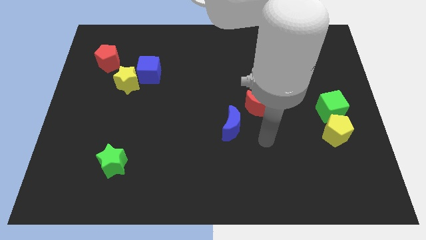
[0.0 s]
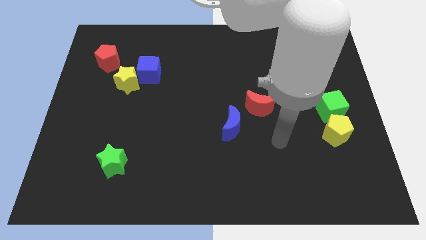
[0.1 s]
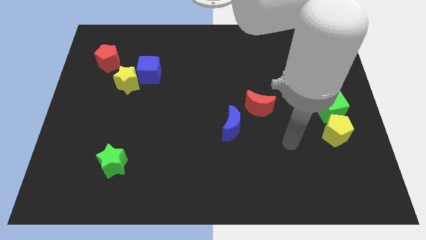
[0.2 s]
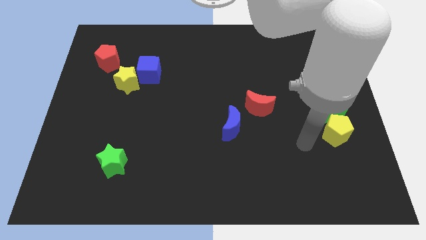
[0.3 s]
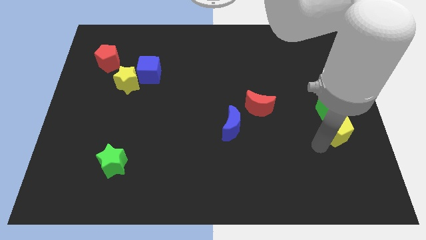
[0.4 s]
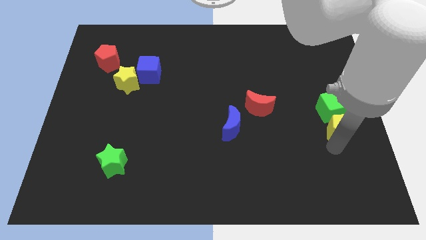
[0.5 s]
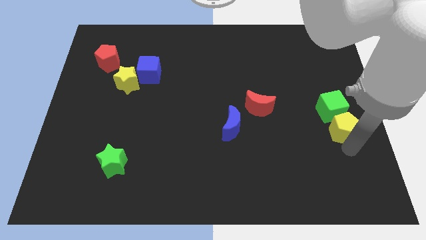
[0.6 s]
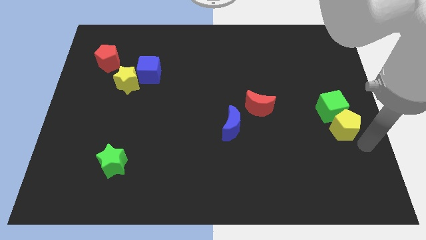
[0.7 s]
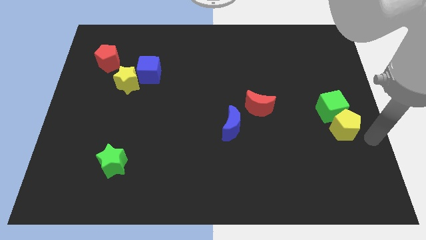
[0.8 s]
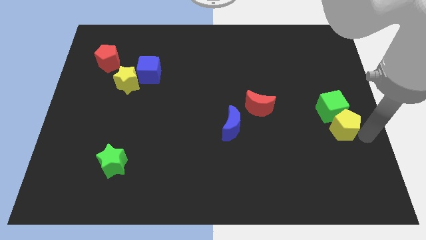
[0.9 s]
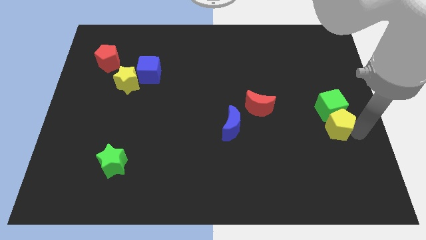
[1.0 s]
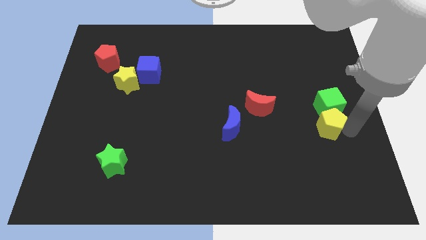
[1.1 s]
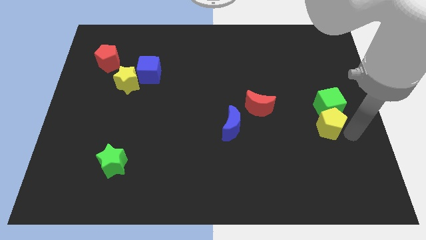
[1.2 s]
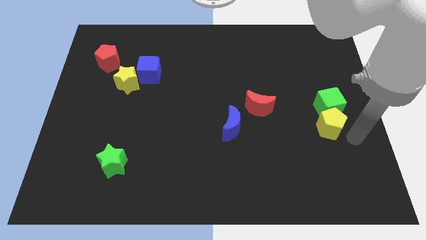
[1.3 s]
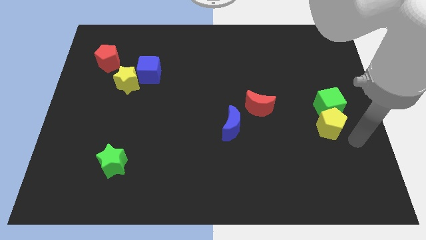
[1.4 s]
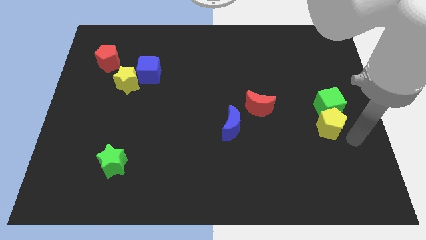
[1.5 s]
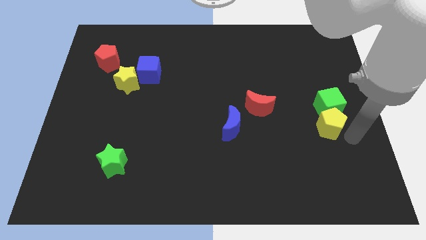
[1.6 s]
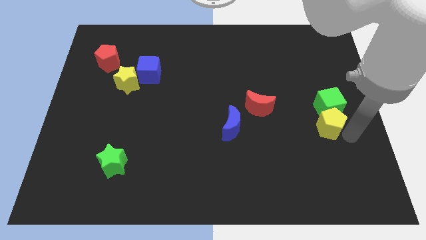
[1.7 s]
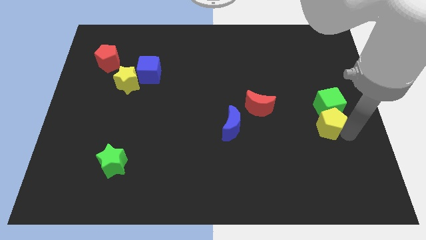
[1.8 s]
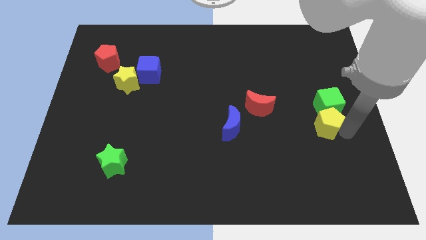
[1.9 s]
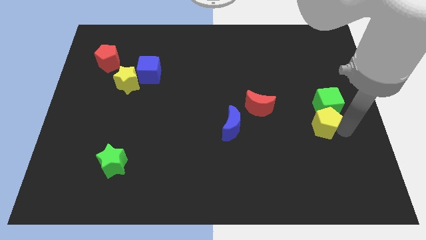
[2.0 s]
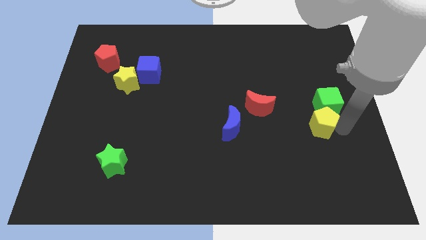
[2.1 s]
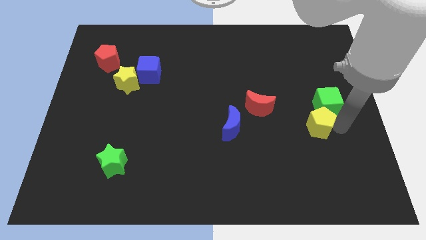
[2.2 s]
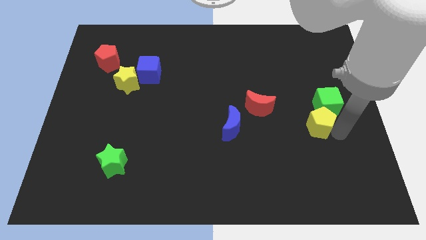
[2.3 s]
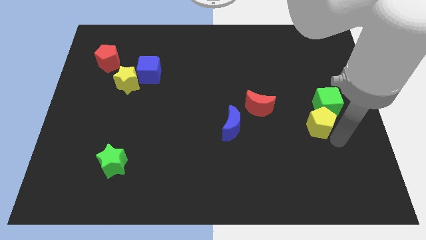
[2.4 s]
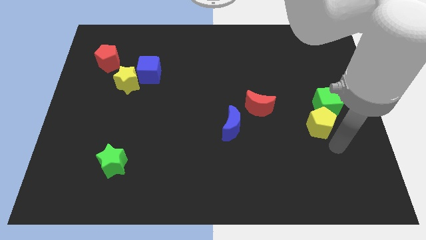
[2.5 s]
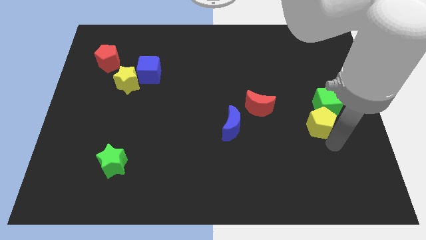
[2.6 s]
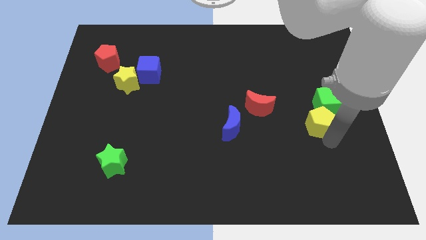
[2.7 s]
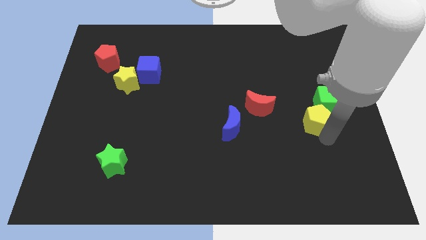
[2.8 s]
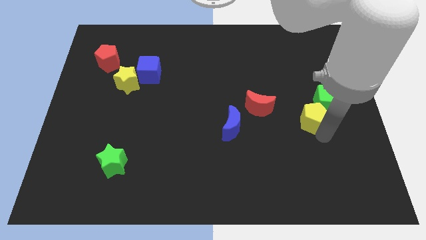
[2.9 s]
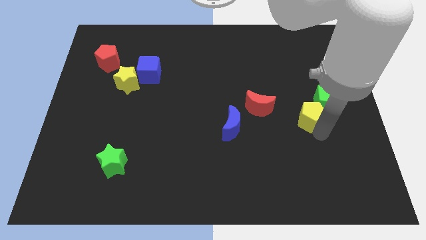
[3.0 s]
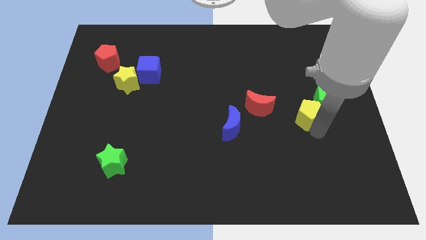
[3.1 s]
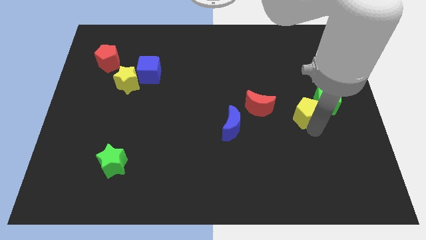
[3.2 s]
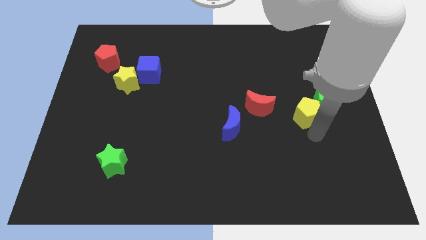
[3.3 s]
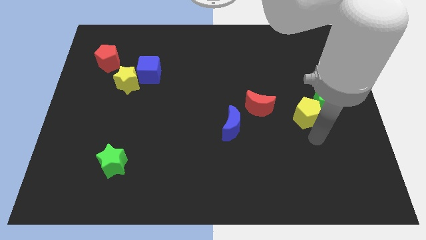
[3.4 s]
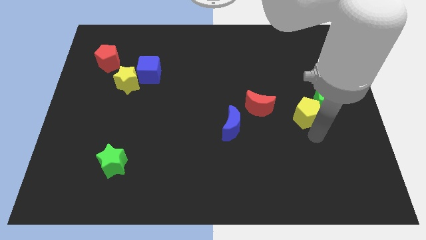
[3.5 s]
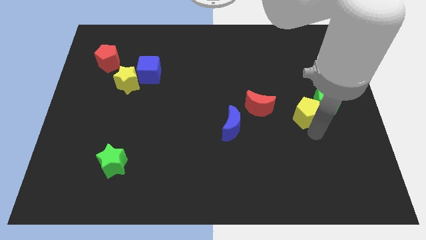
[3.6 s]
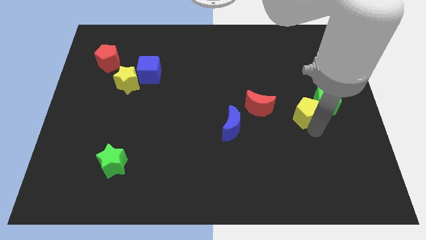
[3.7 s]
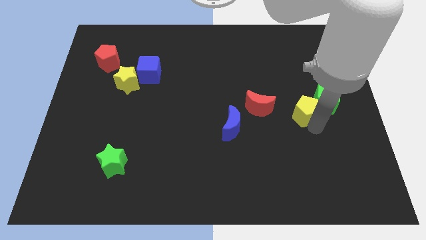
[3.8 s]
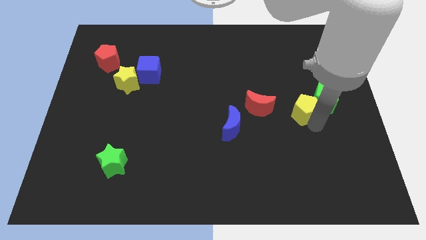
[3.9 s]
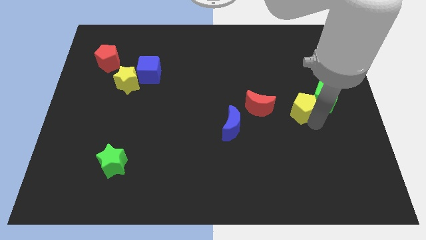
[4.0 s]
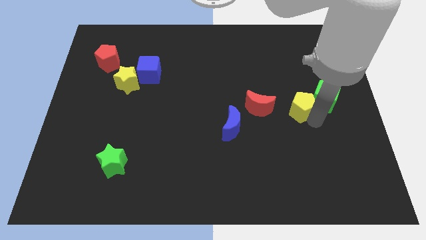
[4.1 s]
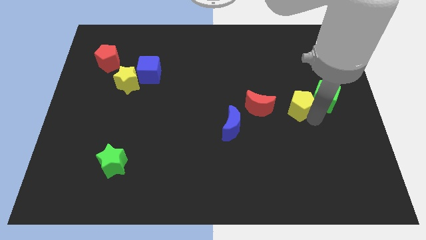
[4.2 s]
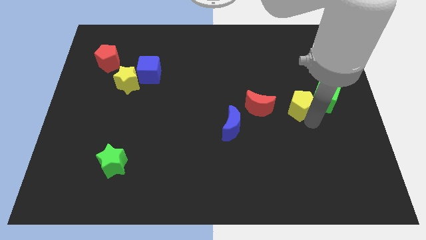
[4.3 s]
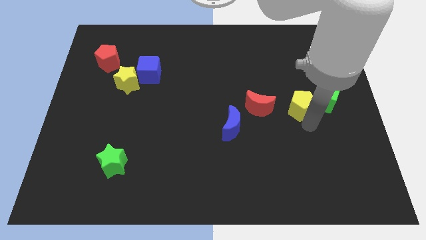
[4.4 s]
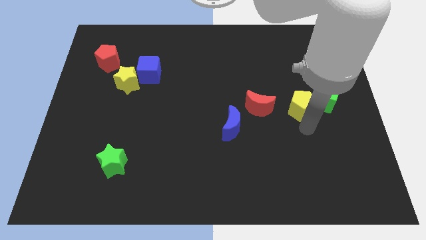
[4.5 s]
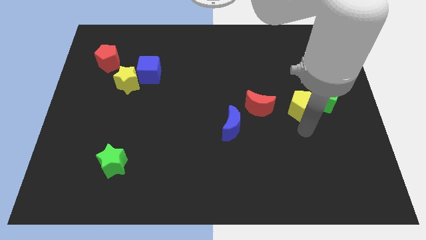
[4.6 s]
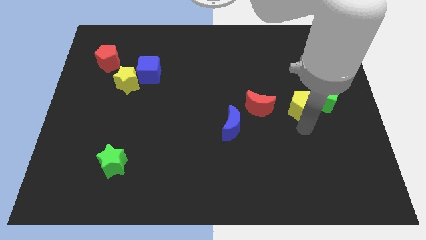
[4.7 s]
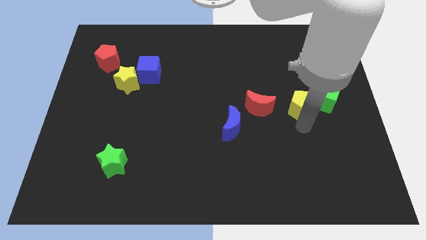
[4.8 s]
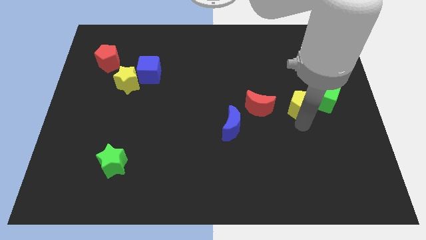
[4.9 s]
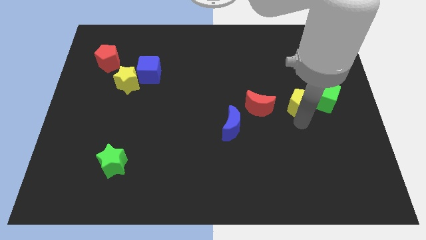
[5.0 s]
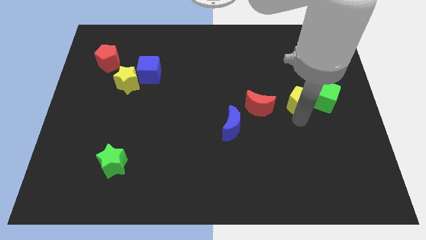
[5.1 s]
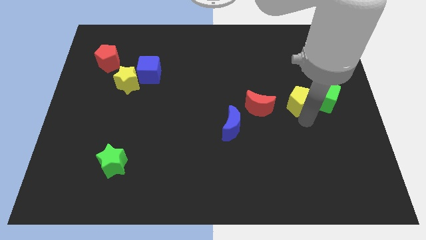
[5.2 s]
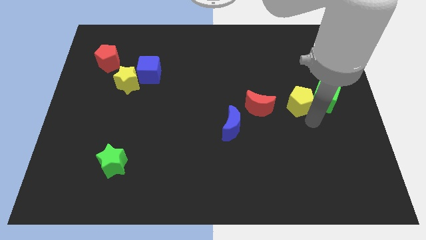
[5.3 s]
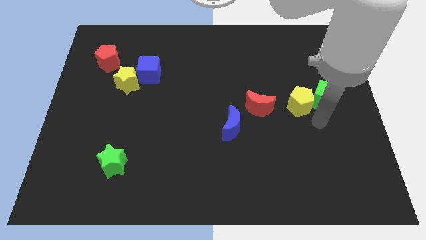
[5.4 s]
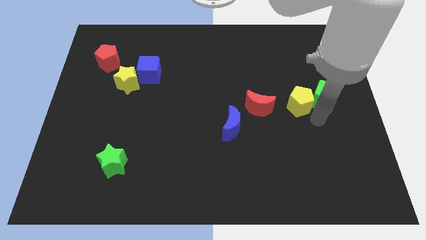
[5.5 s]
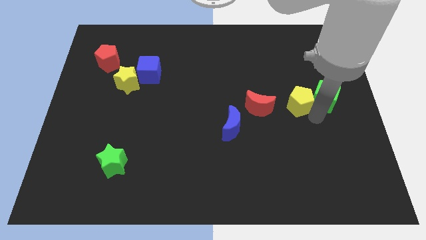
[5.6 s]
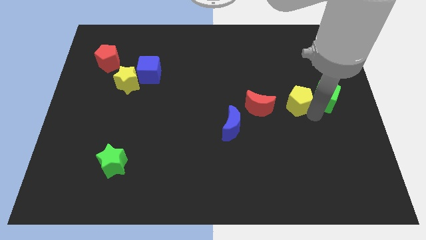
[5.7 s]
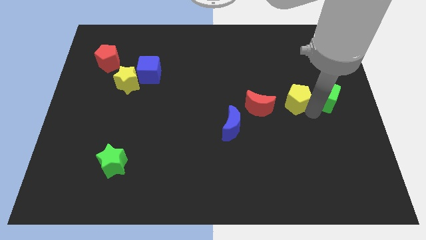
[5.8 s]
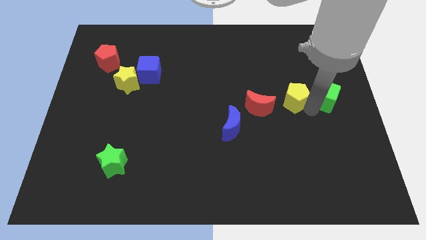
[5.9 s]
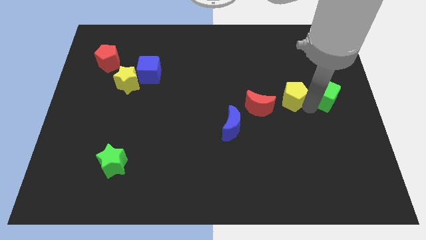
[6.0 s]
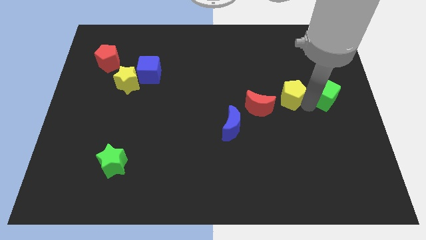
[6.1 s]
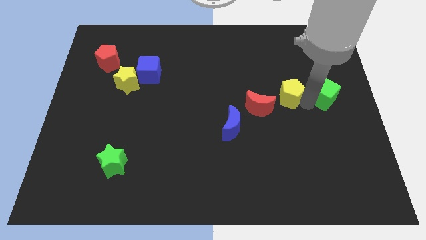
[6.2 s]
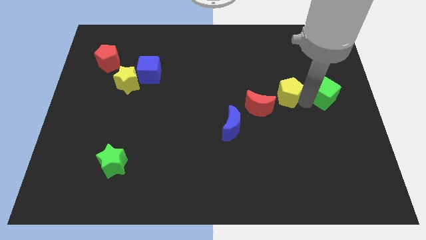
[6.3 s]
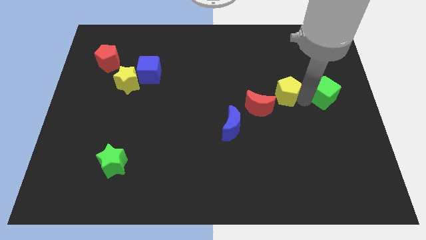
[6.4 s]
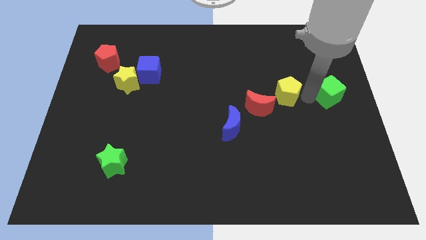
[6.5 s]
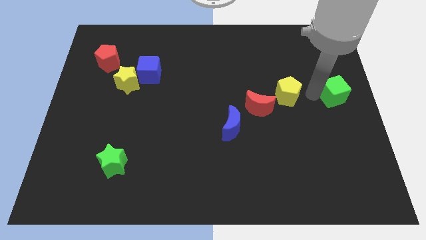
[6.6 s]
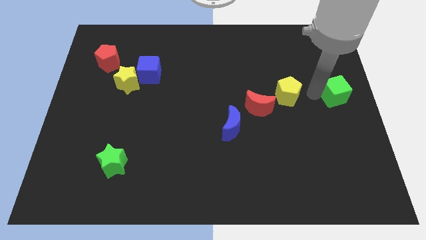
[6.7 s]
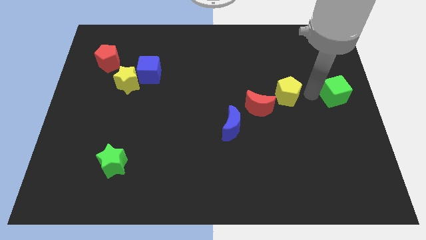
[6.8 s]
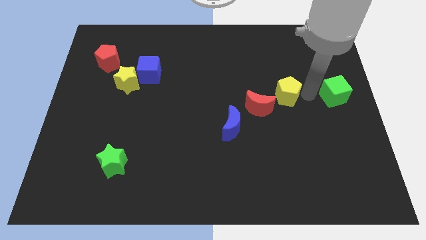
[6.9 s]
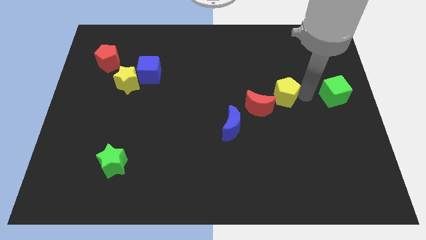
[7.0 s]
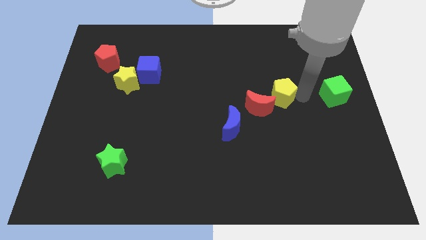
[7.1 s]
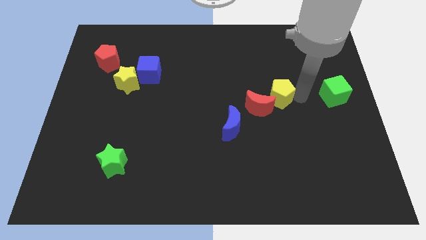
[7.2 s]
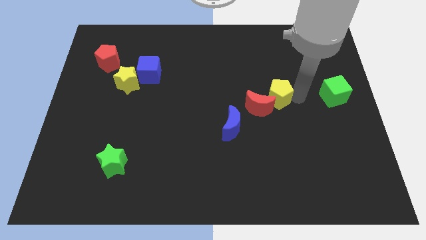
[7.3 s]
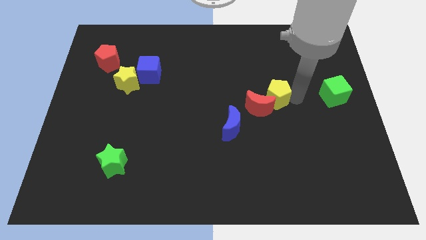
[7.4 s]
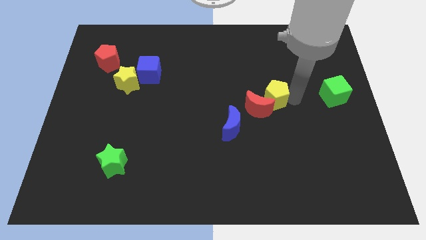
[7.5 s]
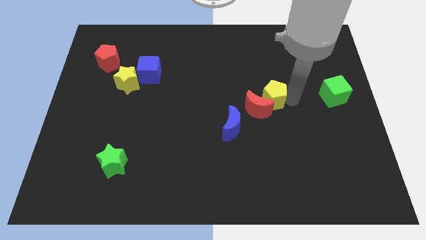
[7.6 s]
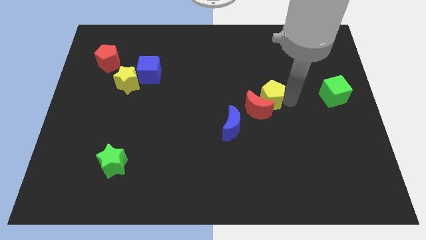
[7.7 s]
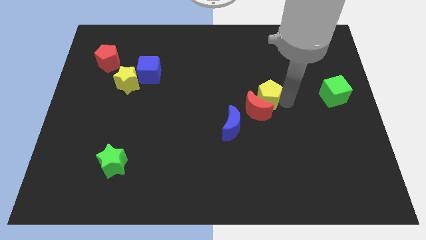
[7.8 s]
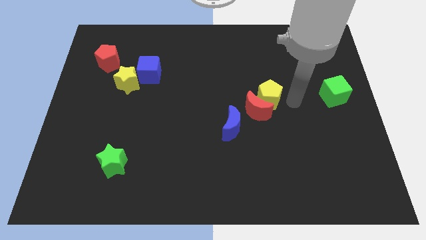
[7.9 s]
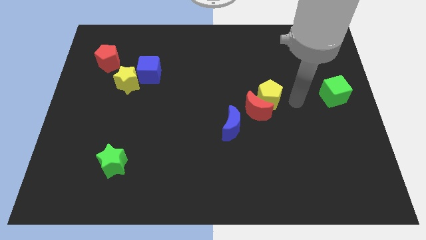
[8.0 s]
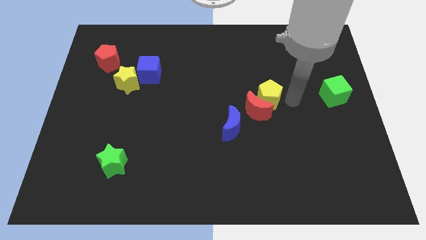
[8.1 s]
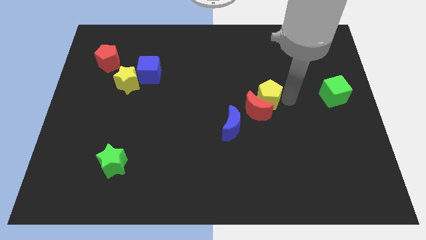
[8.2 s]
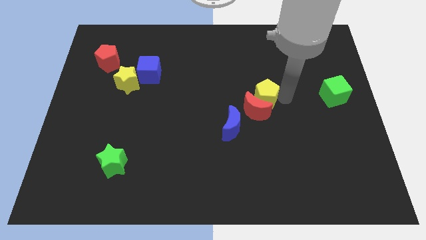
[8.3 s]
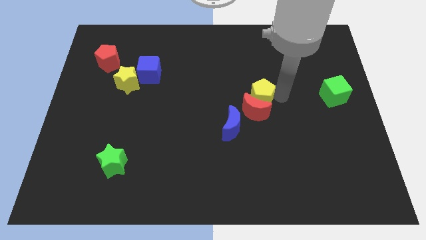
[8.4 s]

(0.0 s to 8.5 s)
push the yellow pentagon to the top left side of the red moon
